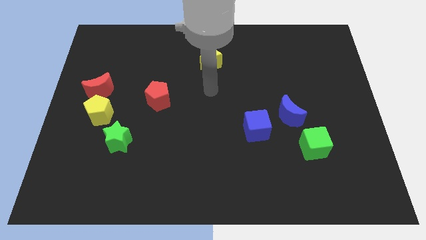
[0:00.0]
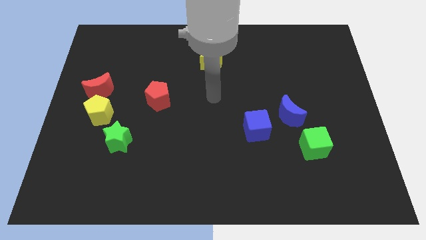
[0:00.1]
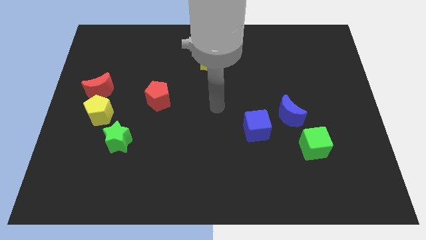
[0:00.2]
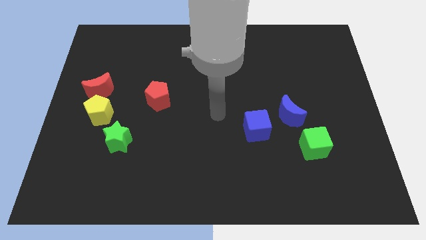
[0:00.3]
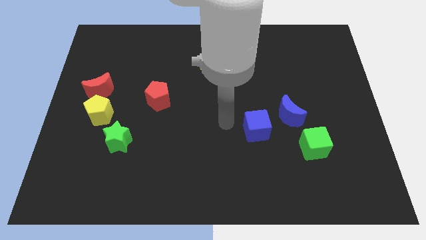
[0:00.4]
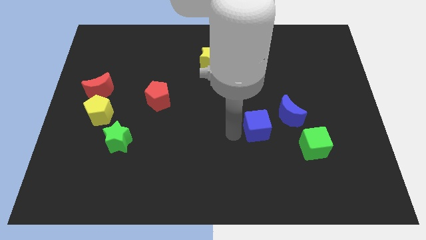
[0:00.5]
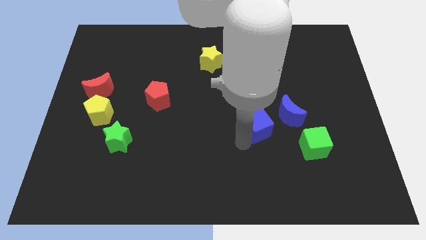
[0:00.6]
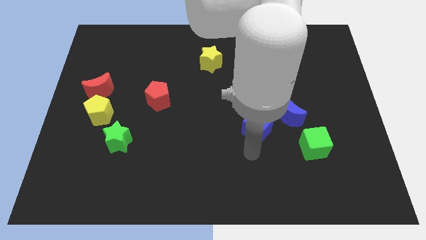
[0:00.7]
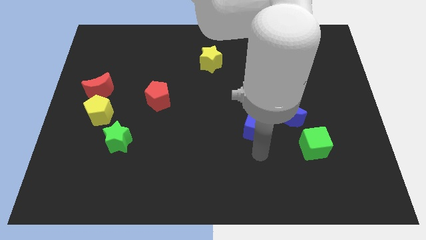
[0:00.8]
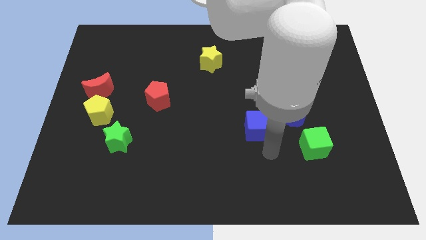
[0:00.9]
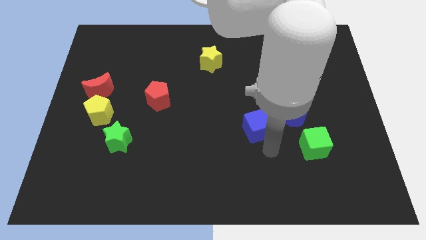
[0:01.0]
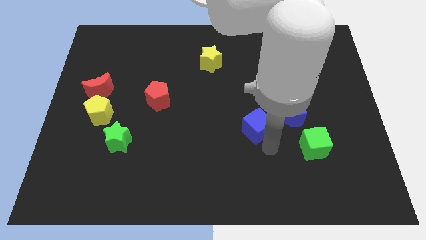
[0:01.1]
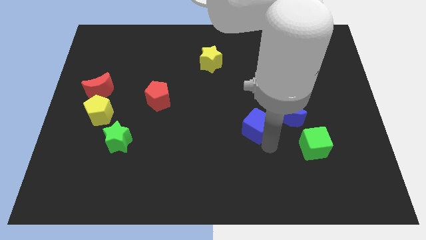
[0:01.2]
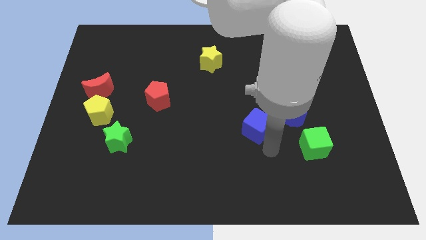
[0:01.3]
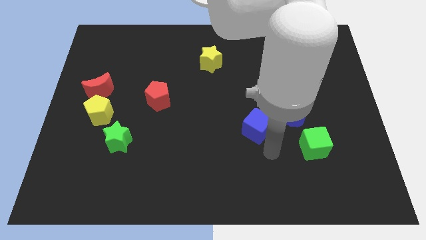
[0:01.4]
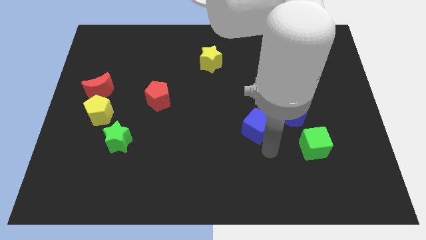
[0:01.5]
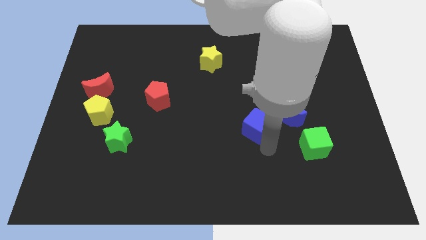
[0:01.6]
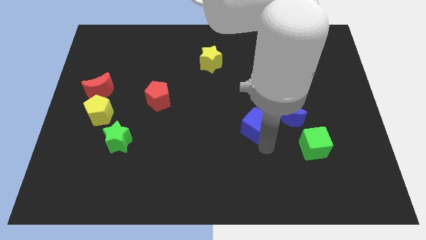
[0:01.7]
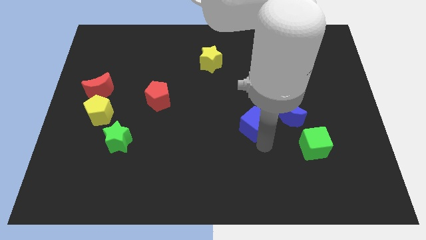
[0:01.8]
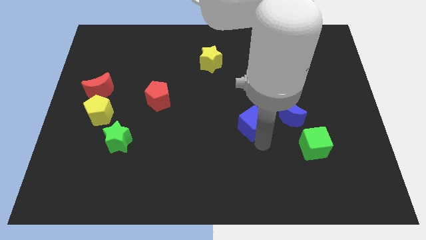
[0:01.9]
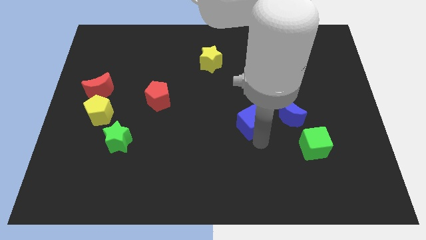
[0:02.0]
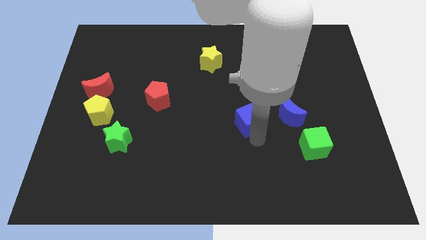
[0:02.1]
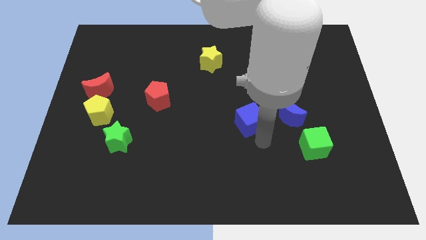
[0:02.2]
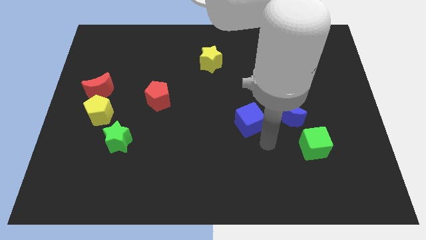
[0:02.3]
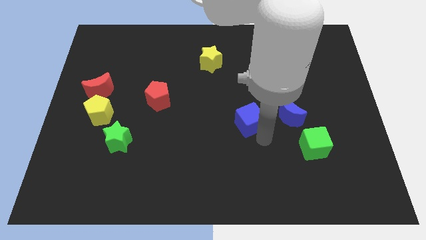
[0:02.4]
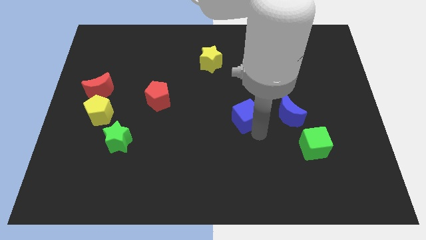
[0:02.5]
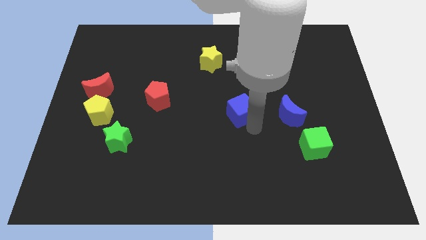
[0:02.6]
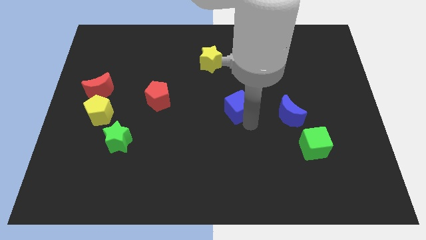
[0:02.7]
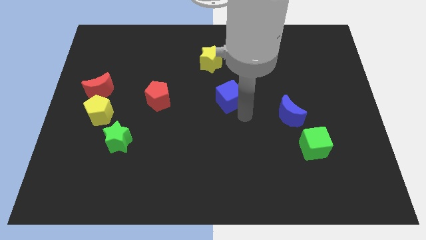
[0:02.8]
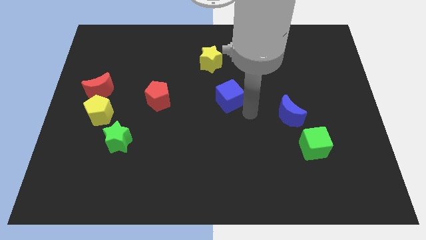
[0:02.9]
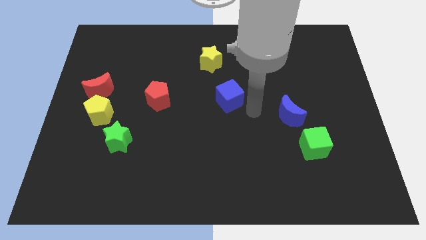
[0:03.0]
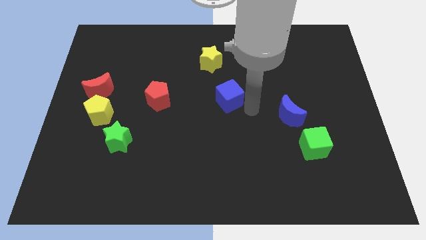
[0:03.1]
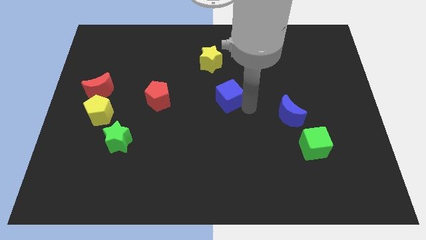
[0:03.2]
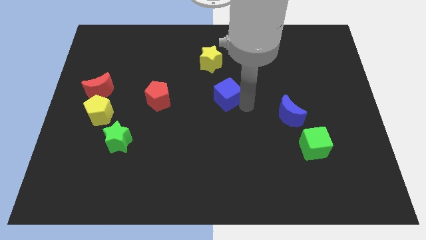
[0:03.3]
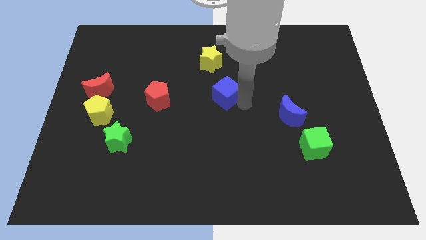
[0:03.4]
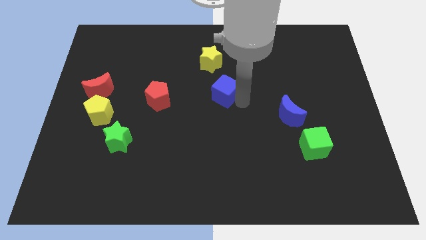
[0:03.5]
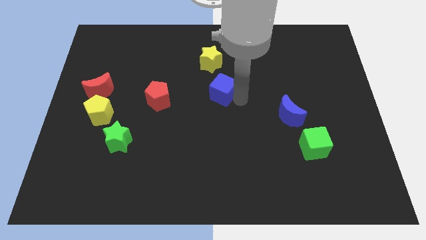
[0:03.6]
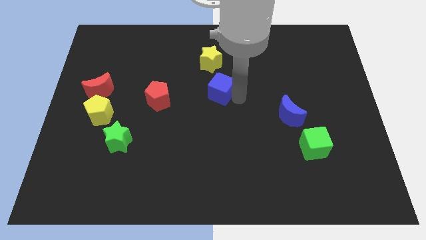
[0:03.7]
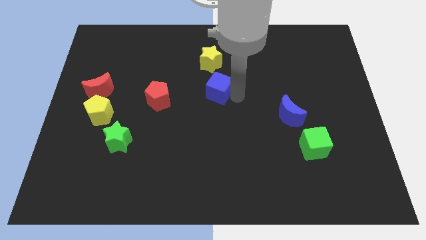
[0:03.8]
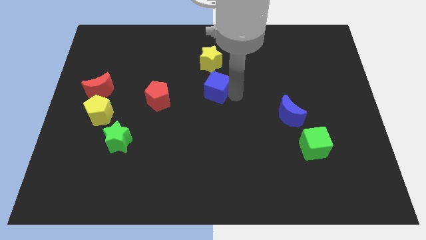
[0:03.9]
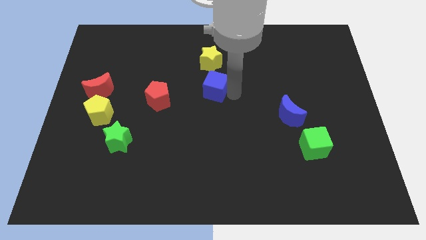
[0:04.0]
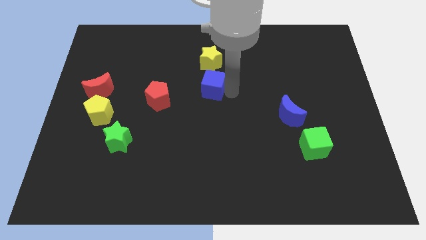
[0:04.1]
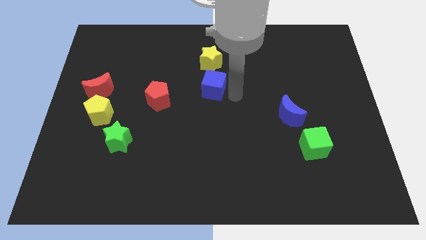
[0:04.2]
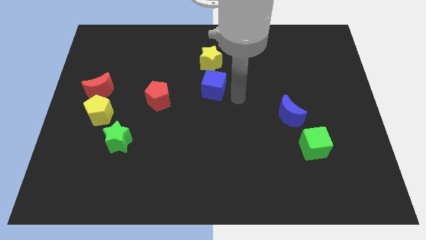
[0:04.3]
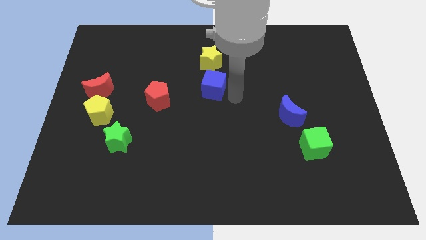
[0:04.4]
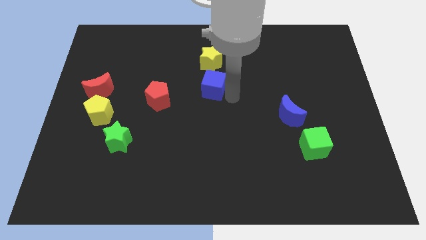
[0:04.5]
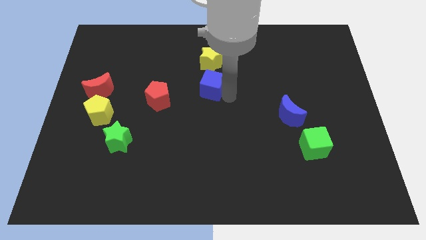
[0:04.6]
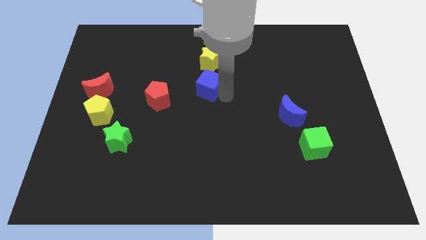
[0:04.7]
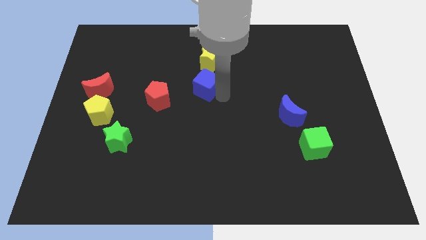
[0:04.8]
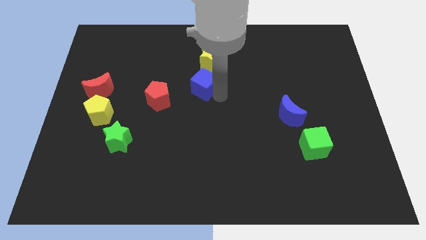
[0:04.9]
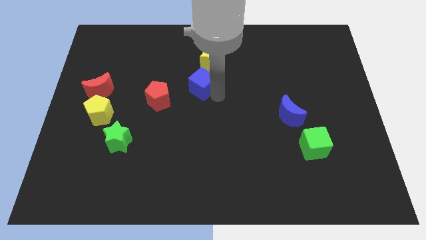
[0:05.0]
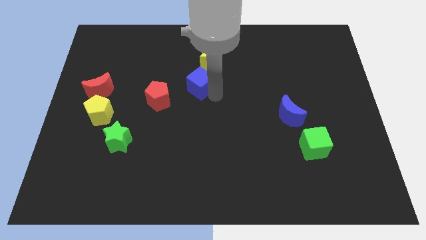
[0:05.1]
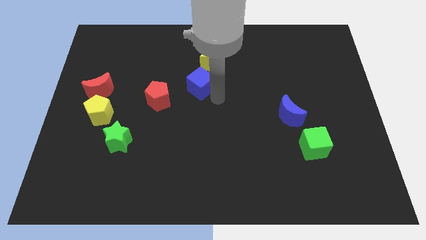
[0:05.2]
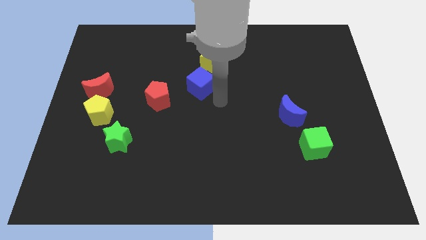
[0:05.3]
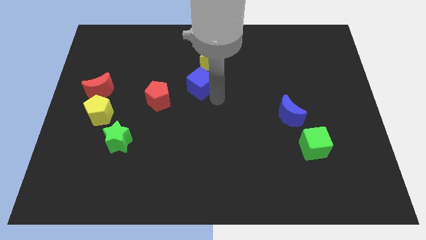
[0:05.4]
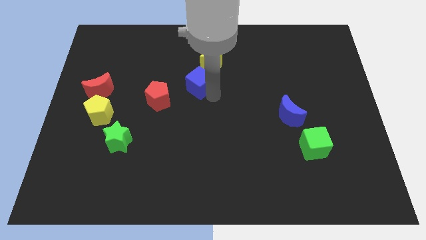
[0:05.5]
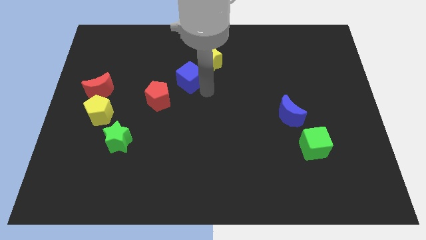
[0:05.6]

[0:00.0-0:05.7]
slide the blue cube up and left

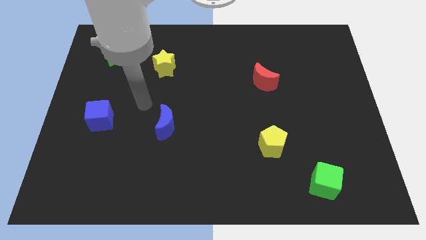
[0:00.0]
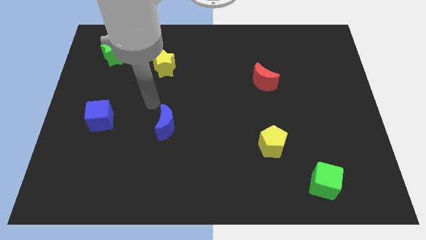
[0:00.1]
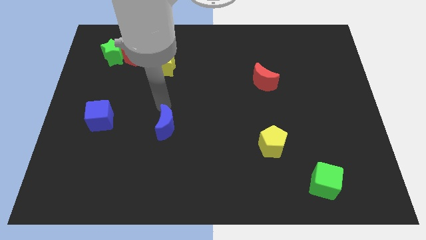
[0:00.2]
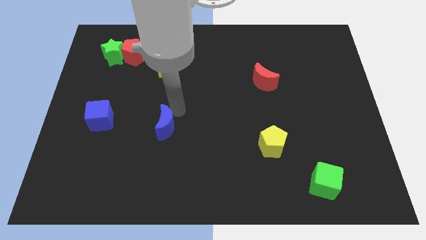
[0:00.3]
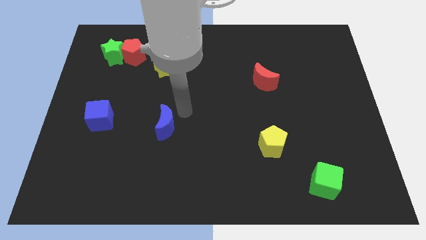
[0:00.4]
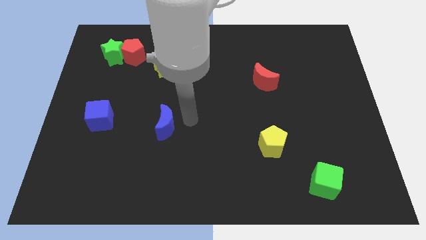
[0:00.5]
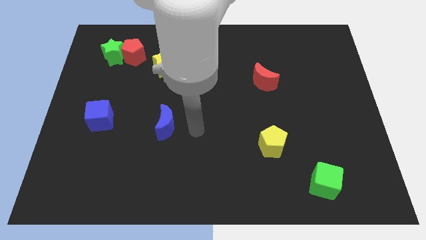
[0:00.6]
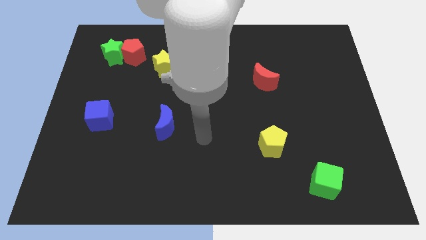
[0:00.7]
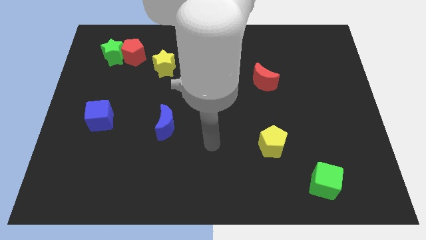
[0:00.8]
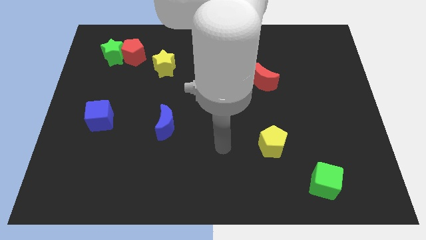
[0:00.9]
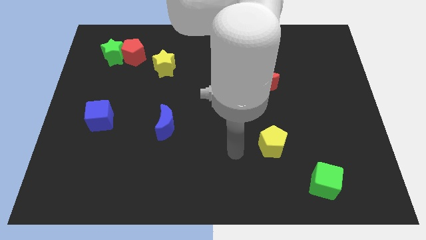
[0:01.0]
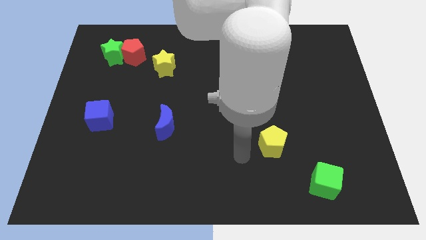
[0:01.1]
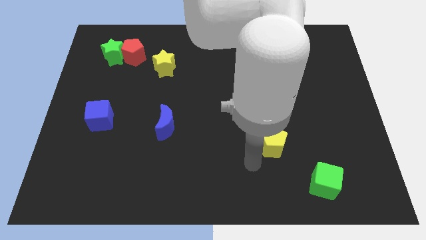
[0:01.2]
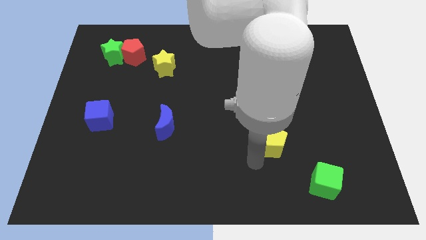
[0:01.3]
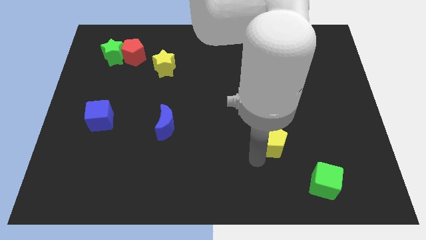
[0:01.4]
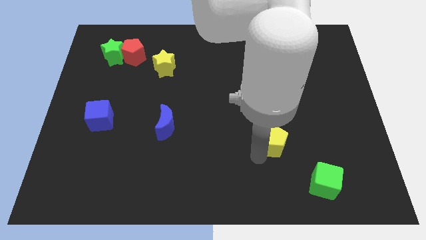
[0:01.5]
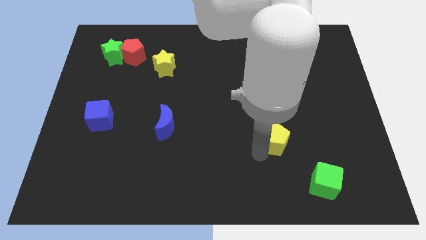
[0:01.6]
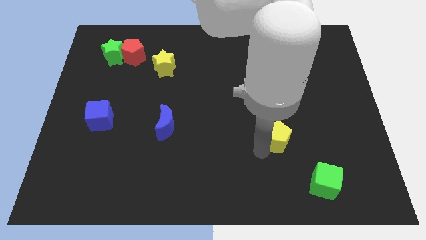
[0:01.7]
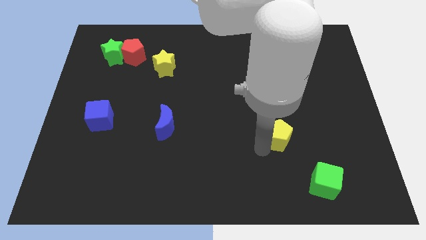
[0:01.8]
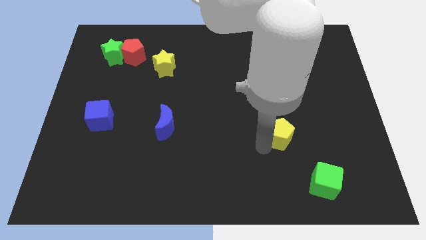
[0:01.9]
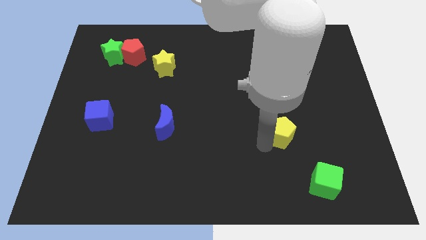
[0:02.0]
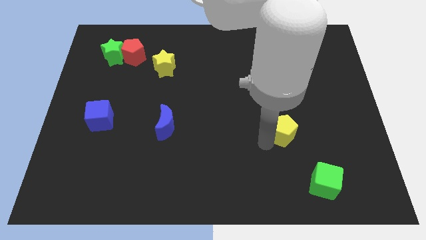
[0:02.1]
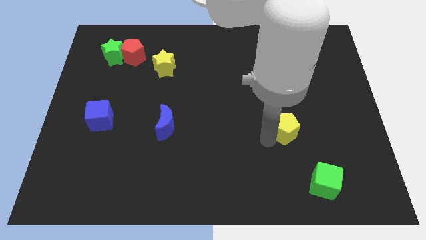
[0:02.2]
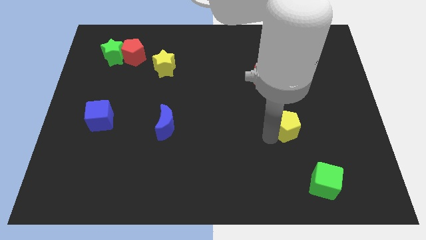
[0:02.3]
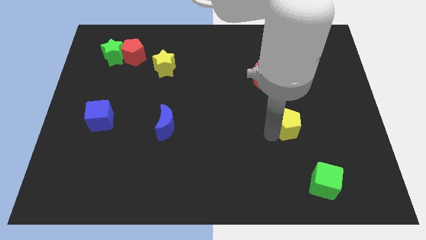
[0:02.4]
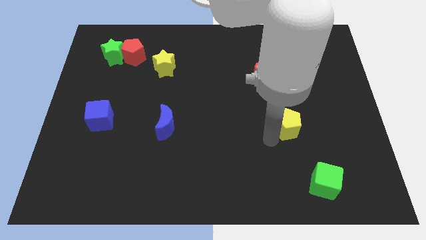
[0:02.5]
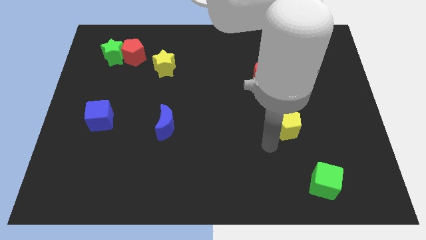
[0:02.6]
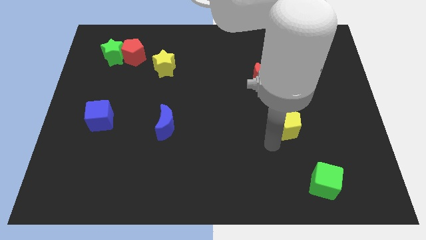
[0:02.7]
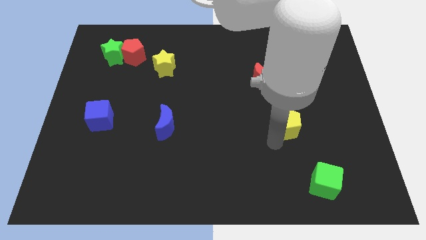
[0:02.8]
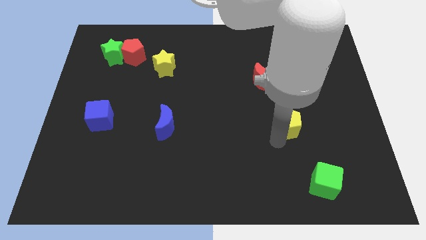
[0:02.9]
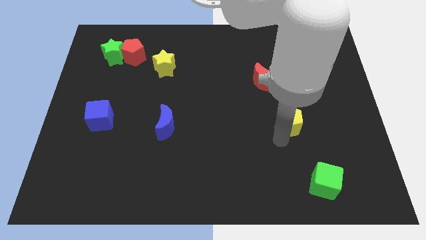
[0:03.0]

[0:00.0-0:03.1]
push the yellow pentagon diagonally up and to the right a little
